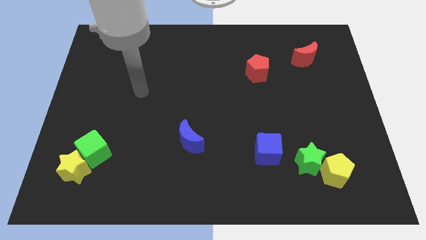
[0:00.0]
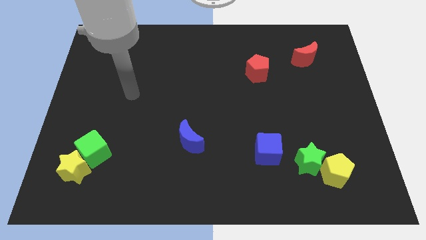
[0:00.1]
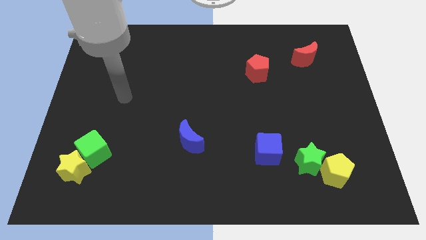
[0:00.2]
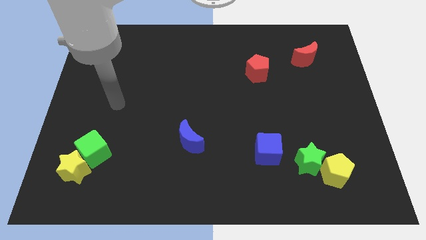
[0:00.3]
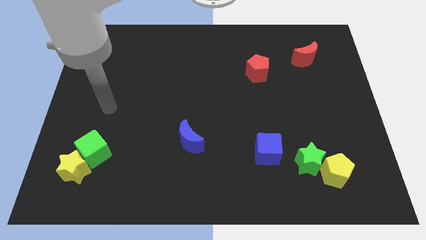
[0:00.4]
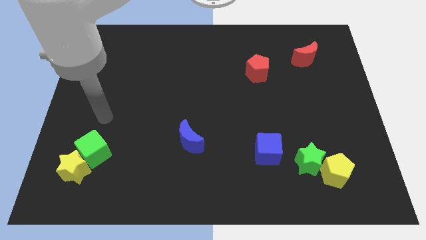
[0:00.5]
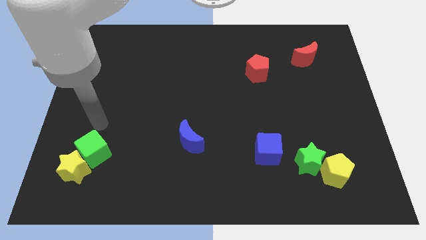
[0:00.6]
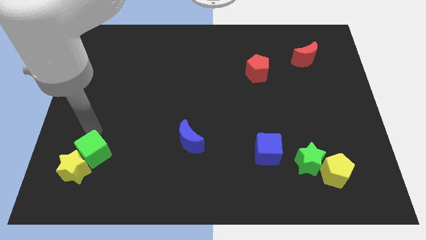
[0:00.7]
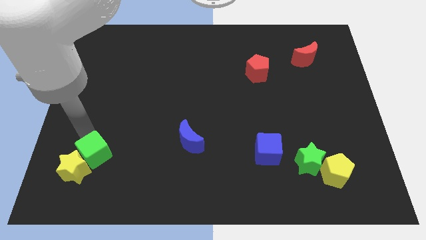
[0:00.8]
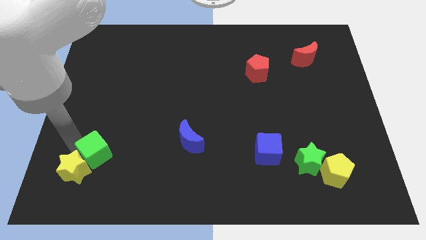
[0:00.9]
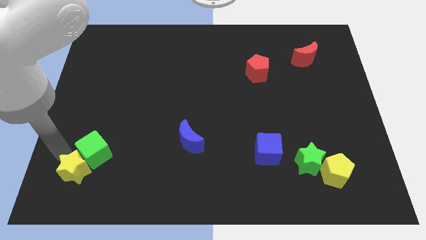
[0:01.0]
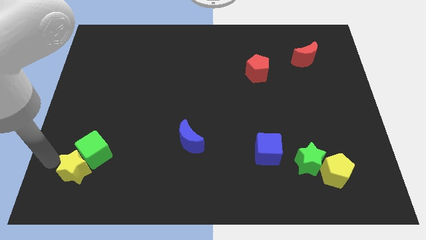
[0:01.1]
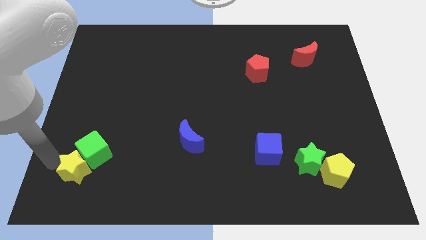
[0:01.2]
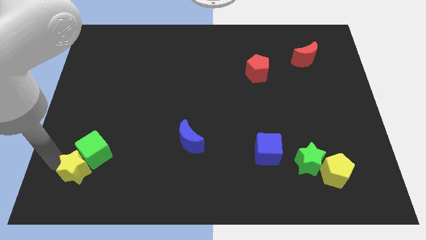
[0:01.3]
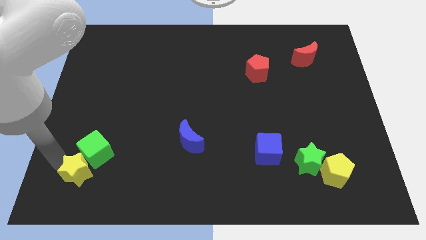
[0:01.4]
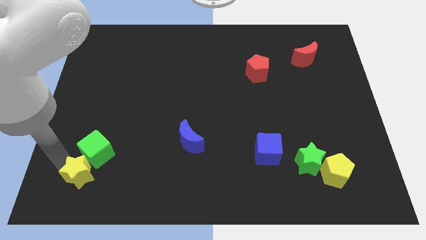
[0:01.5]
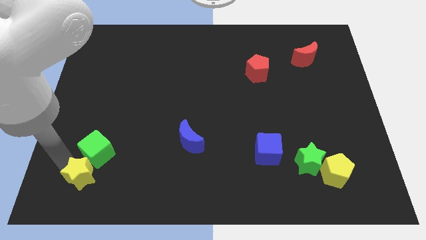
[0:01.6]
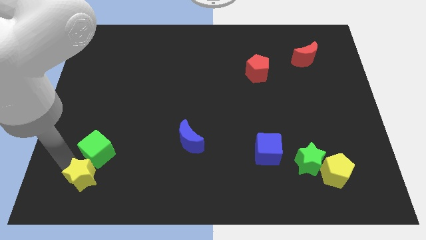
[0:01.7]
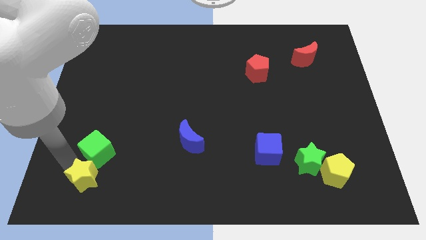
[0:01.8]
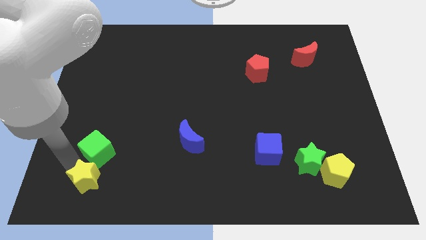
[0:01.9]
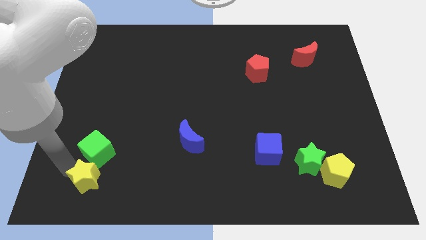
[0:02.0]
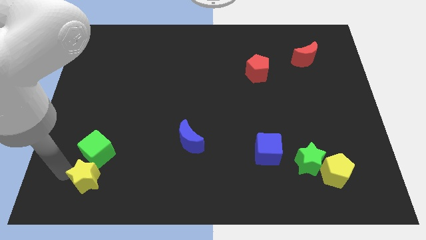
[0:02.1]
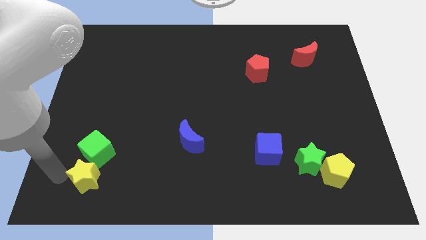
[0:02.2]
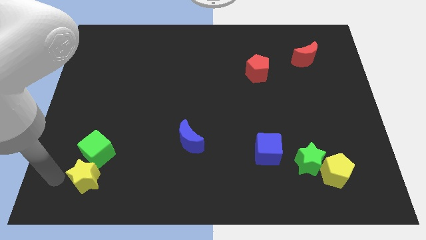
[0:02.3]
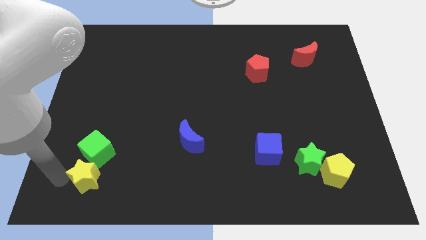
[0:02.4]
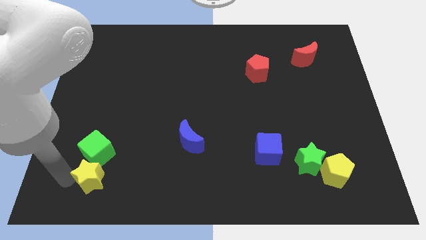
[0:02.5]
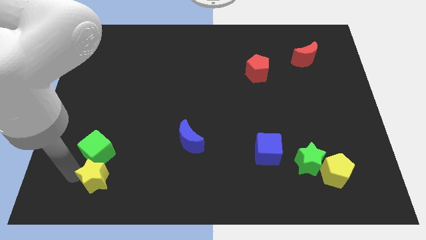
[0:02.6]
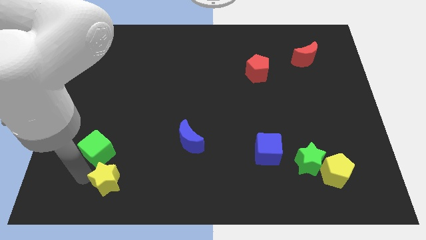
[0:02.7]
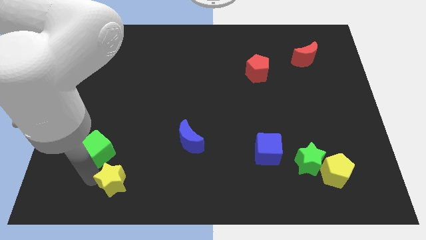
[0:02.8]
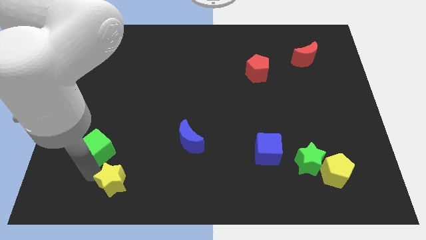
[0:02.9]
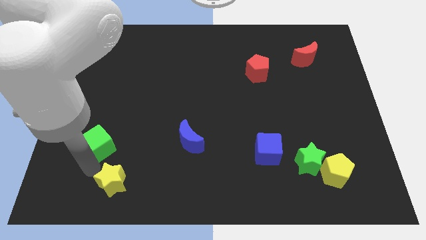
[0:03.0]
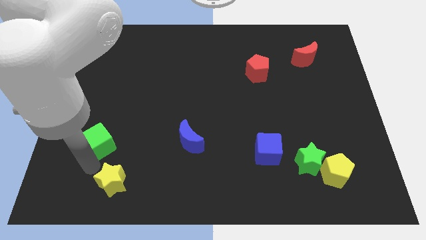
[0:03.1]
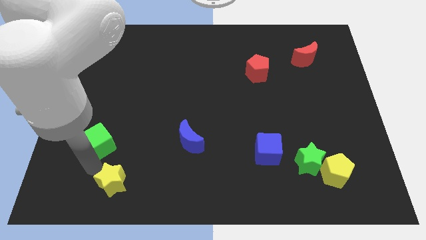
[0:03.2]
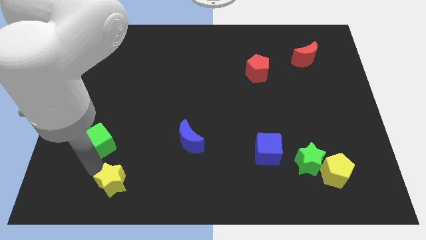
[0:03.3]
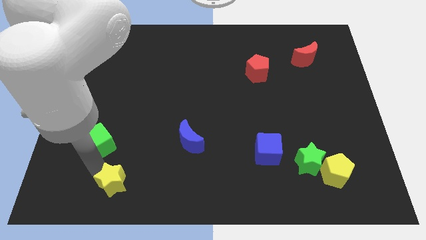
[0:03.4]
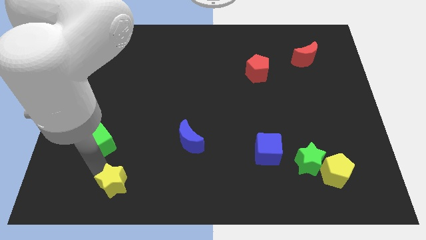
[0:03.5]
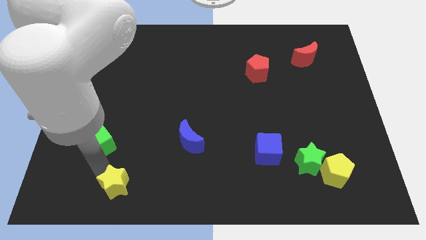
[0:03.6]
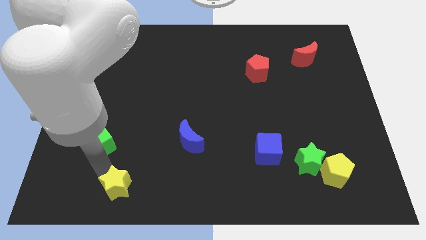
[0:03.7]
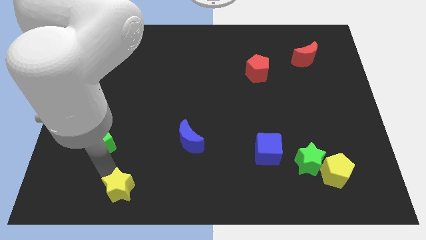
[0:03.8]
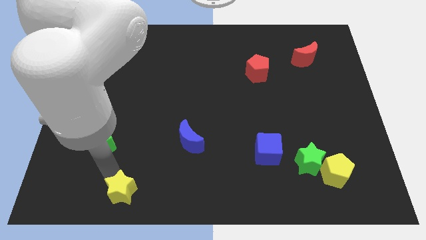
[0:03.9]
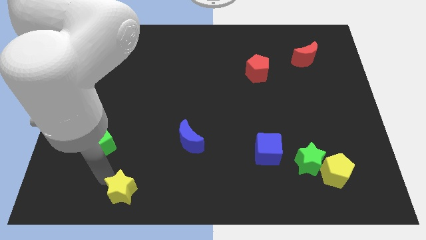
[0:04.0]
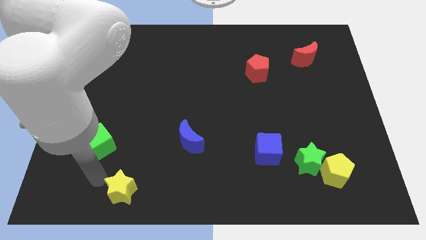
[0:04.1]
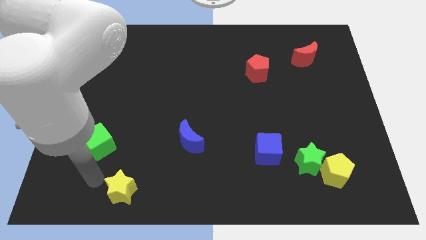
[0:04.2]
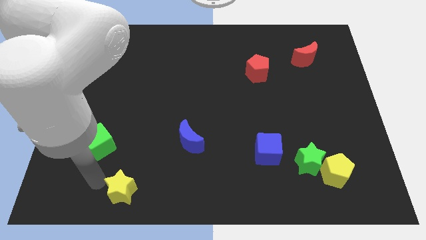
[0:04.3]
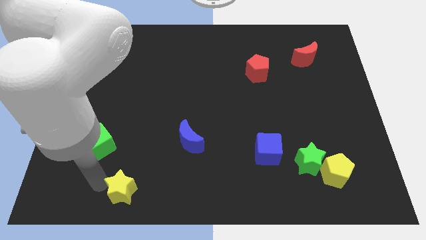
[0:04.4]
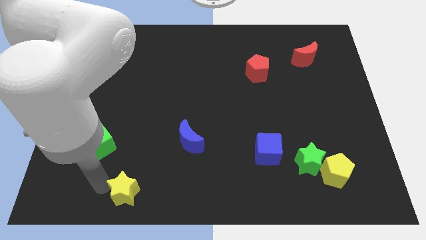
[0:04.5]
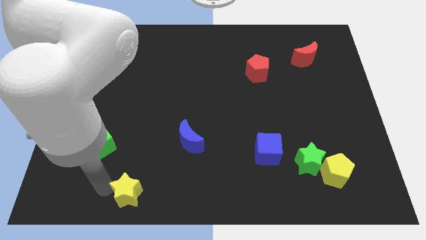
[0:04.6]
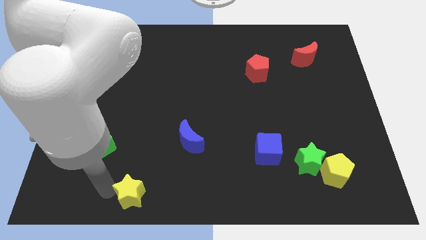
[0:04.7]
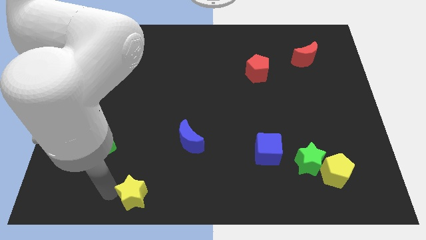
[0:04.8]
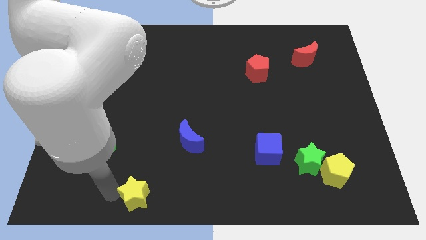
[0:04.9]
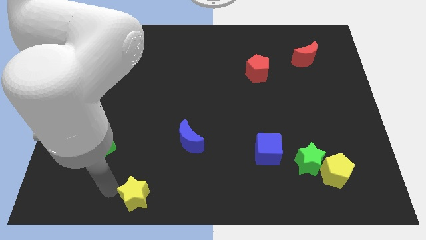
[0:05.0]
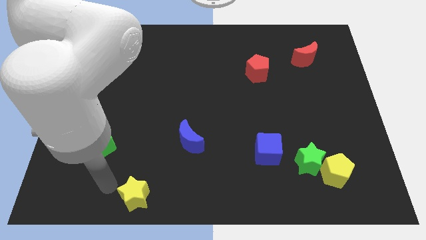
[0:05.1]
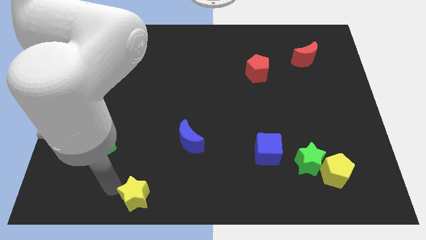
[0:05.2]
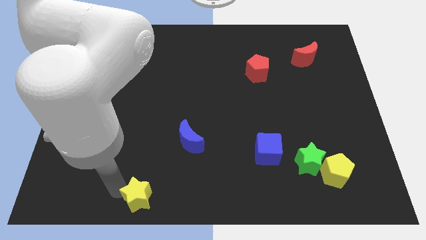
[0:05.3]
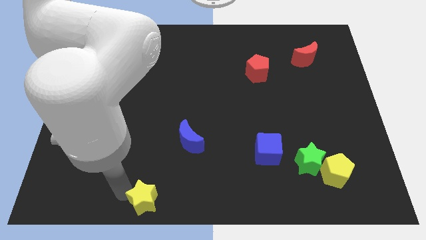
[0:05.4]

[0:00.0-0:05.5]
move the yellow star to the bottom
